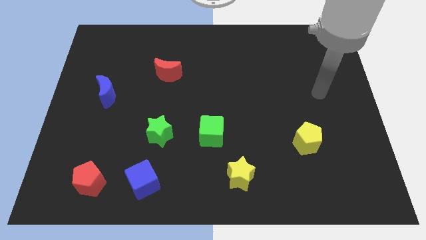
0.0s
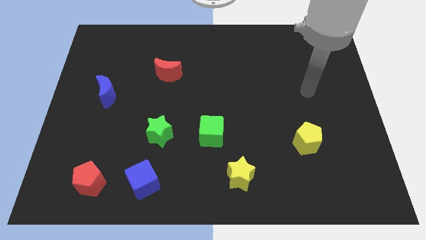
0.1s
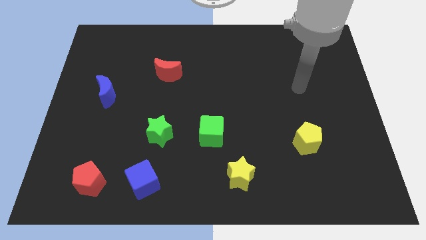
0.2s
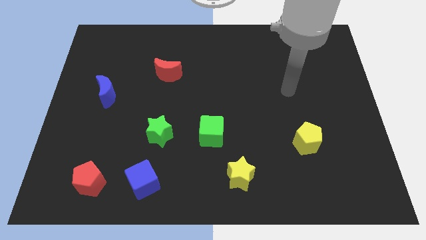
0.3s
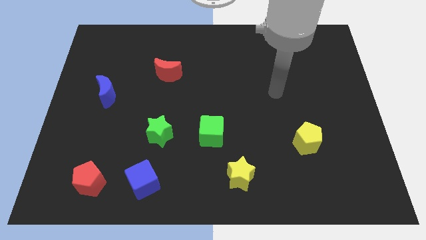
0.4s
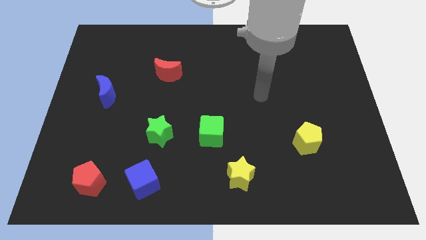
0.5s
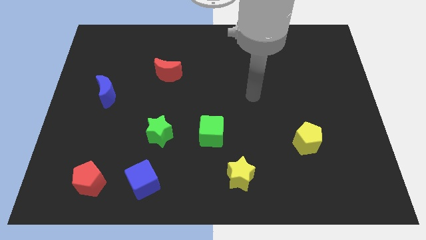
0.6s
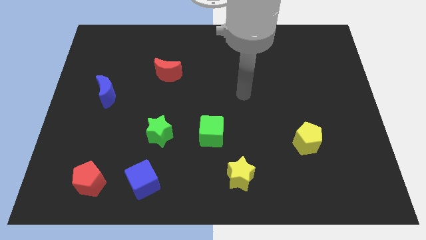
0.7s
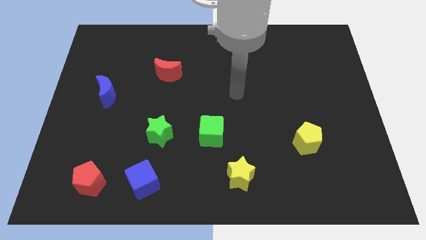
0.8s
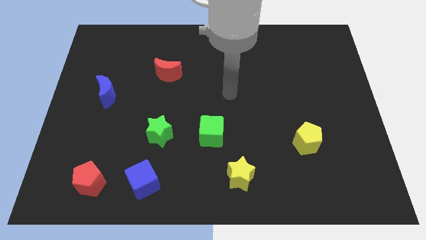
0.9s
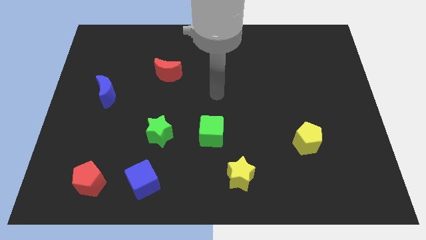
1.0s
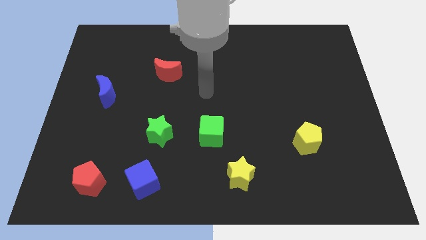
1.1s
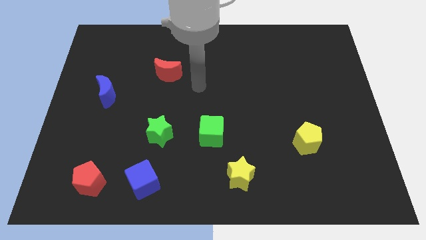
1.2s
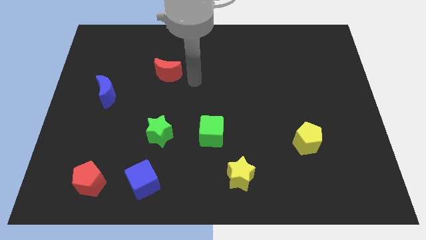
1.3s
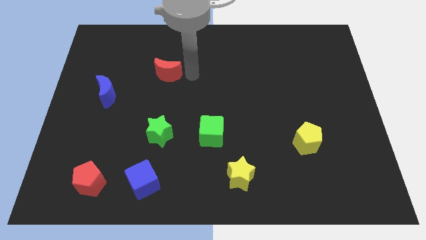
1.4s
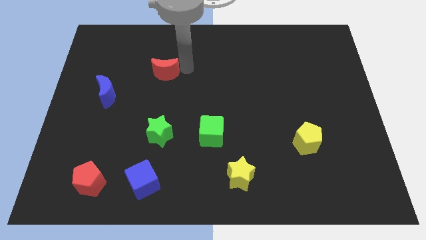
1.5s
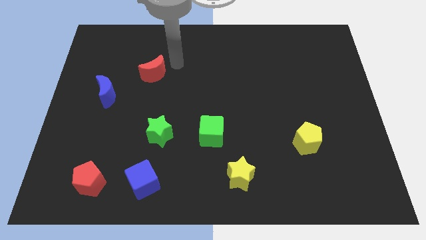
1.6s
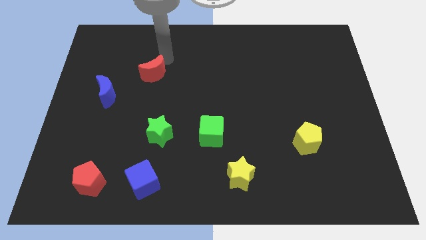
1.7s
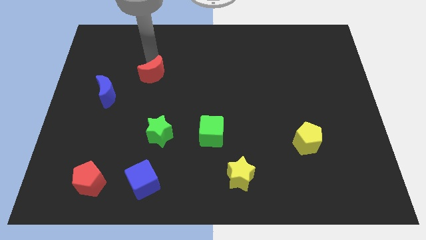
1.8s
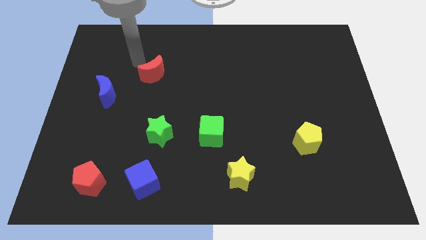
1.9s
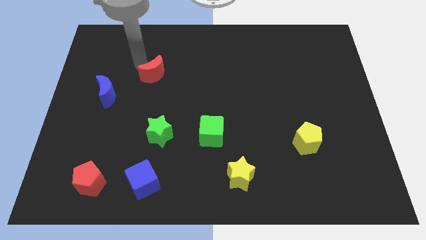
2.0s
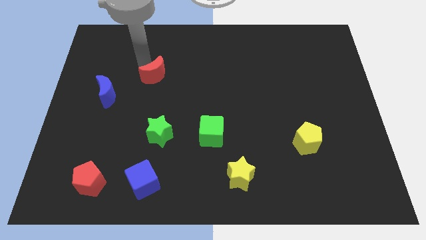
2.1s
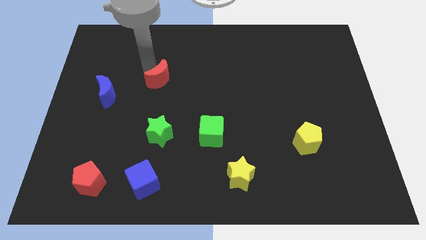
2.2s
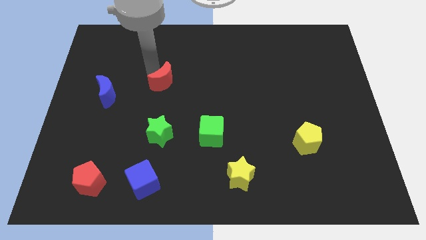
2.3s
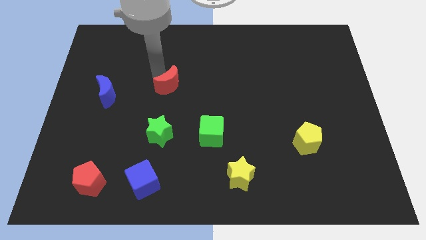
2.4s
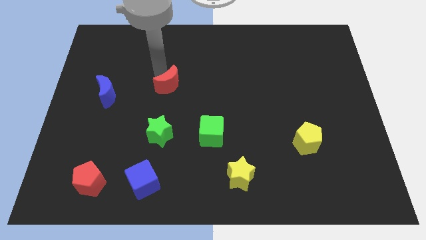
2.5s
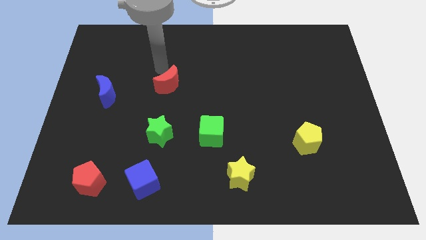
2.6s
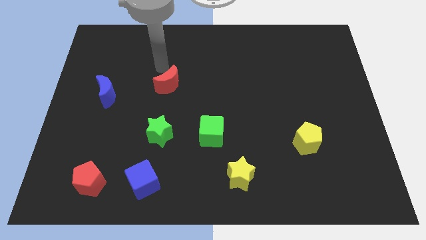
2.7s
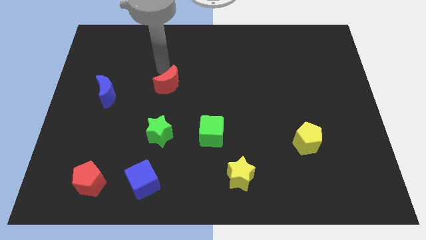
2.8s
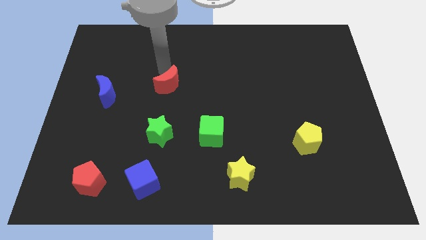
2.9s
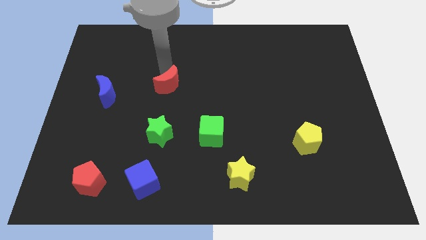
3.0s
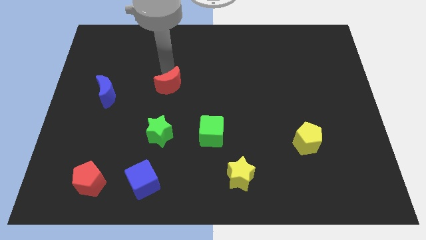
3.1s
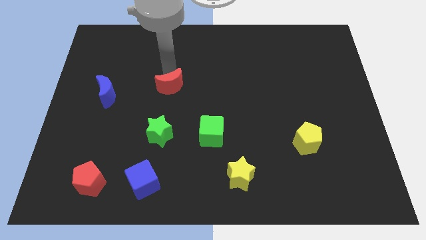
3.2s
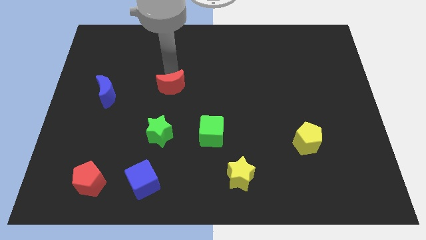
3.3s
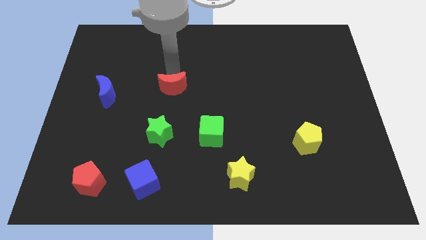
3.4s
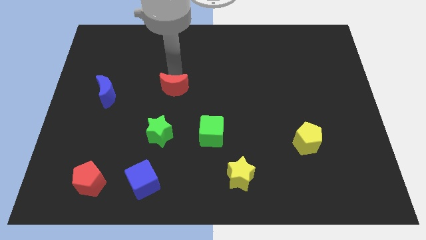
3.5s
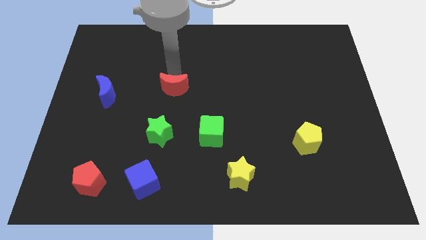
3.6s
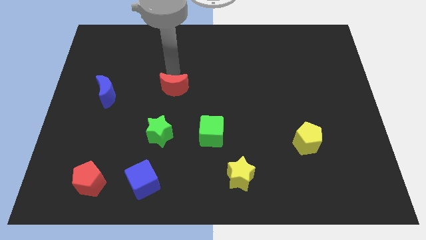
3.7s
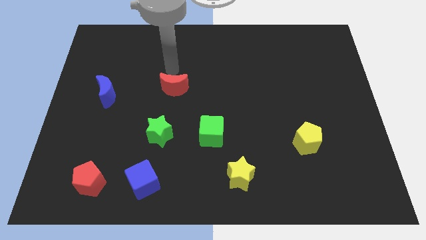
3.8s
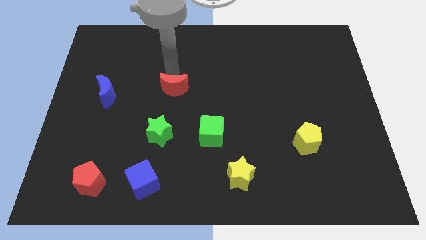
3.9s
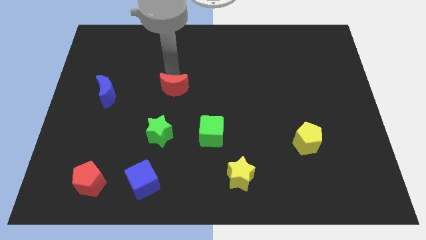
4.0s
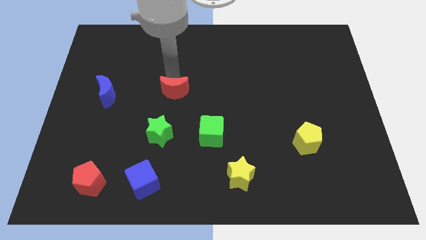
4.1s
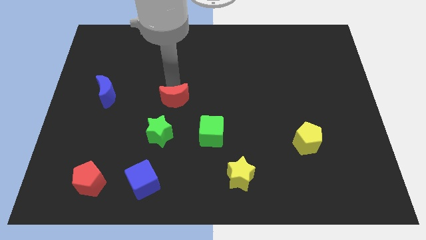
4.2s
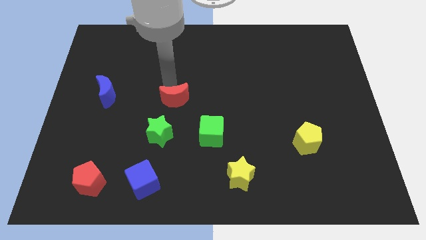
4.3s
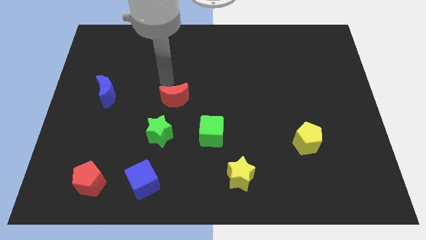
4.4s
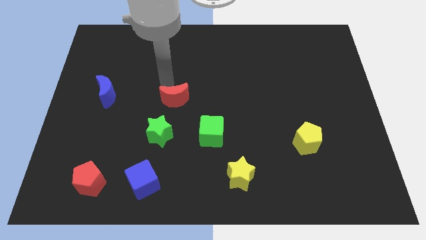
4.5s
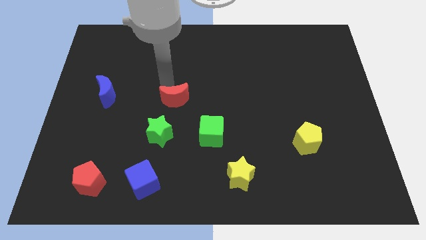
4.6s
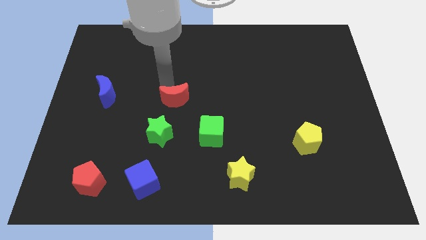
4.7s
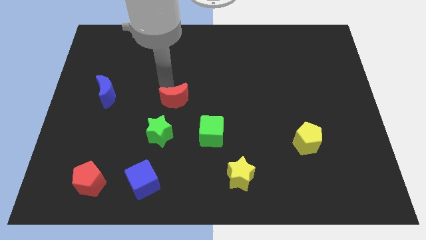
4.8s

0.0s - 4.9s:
put the red moon to the top right side of the green star

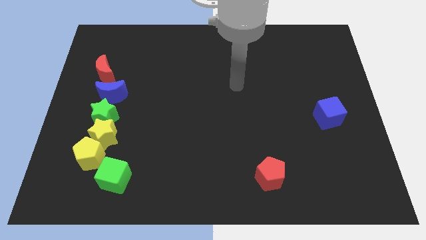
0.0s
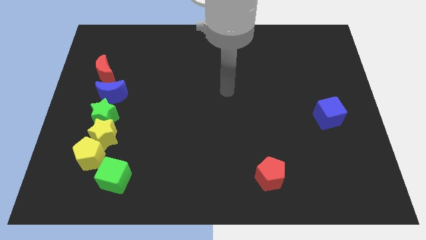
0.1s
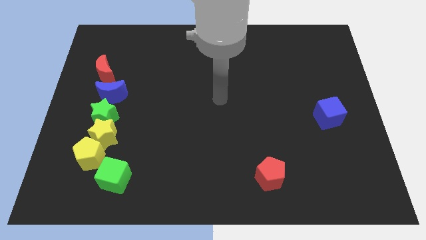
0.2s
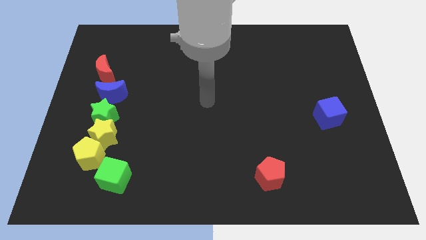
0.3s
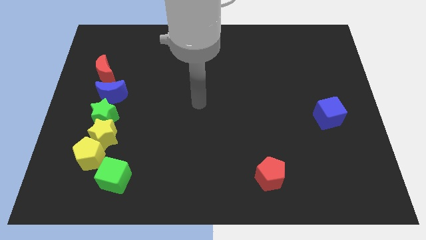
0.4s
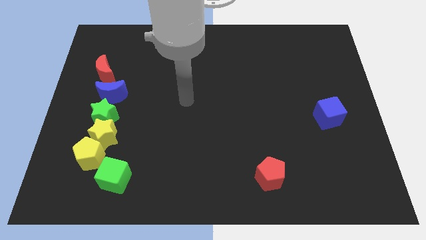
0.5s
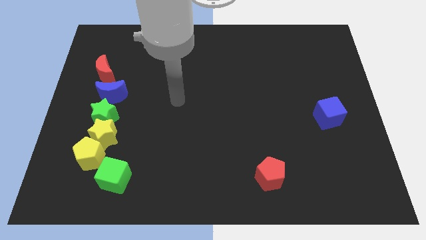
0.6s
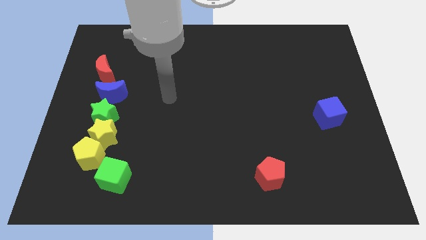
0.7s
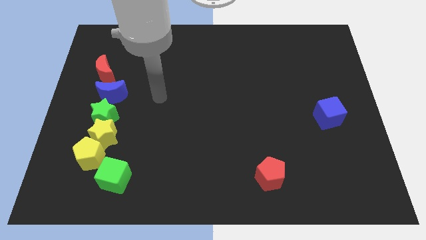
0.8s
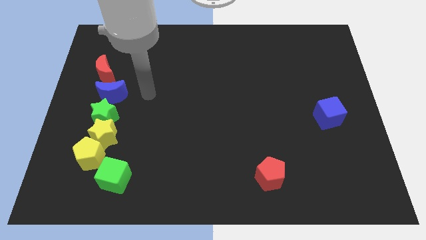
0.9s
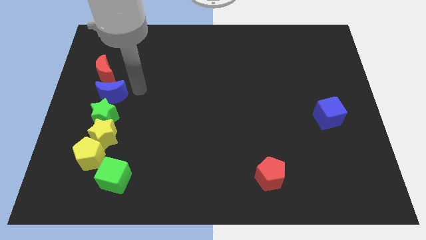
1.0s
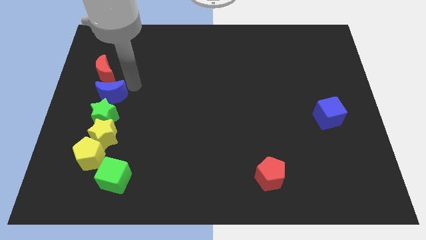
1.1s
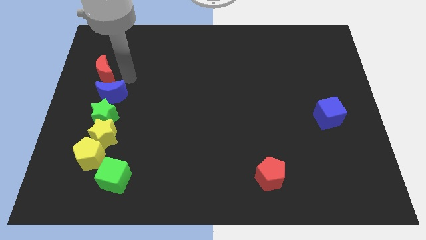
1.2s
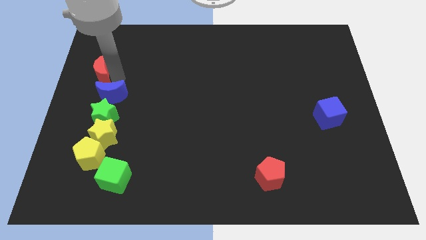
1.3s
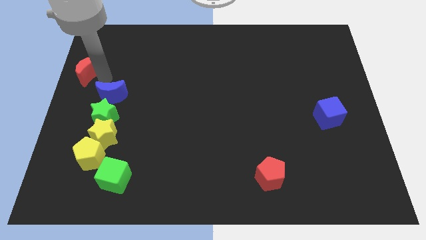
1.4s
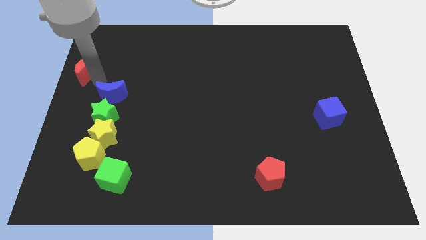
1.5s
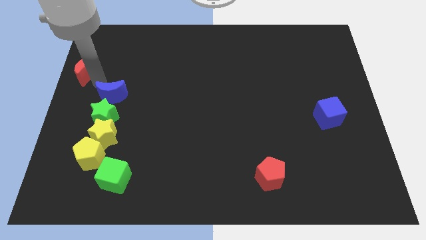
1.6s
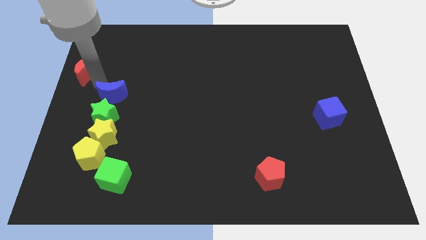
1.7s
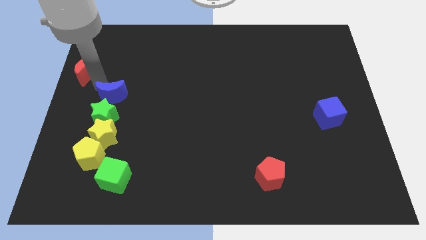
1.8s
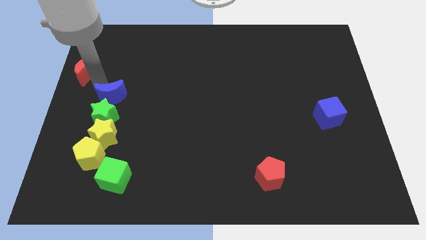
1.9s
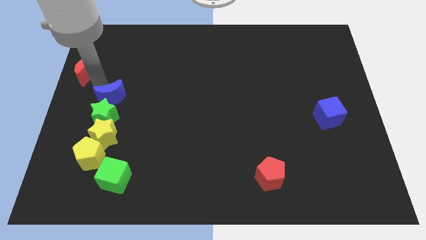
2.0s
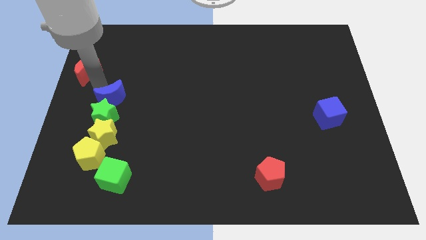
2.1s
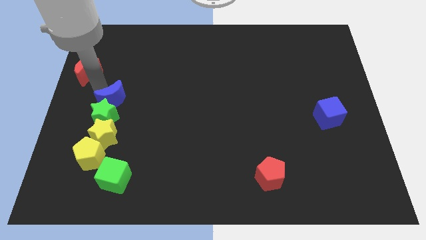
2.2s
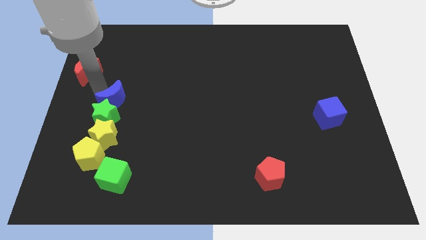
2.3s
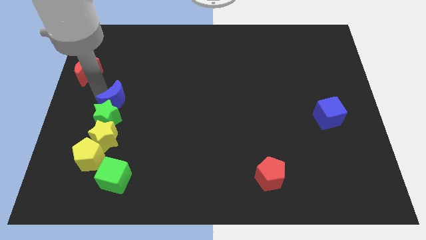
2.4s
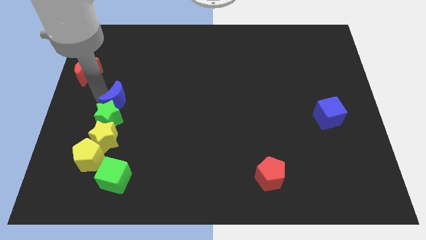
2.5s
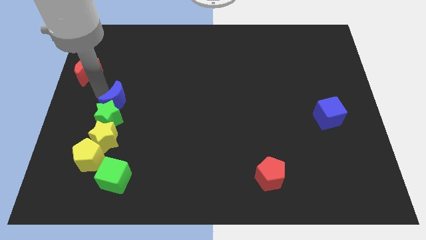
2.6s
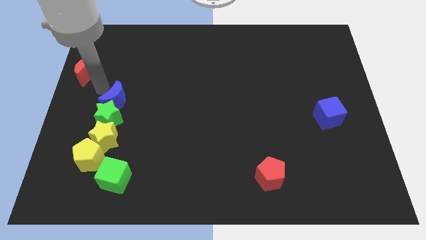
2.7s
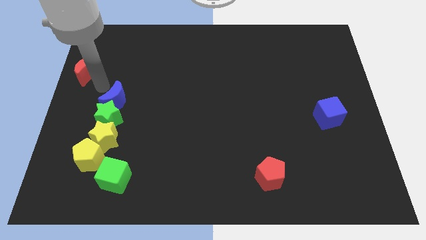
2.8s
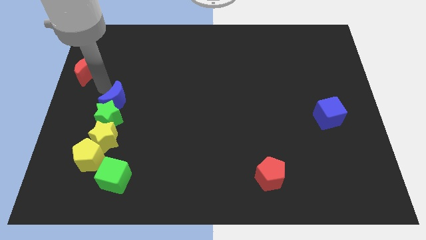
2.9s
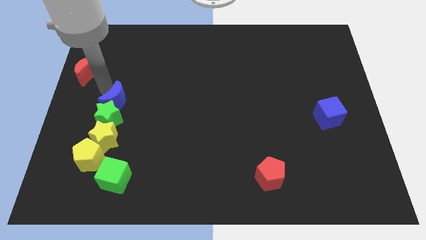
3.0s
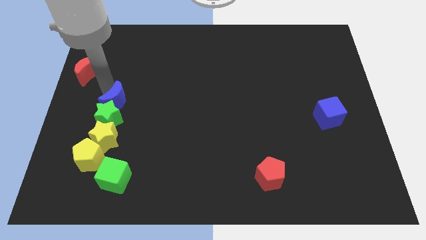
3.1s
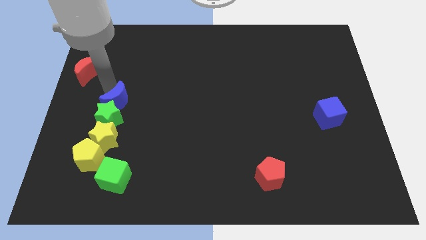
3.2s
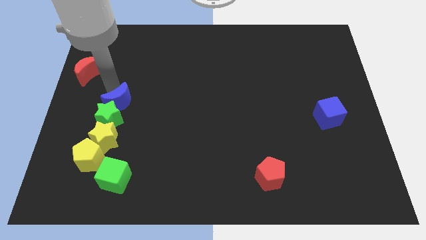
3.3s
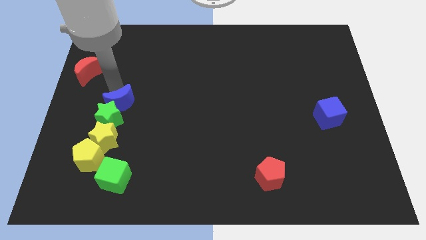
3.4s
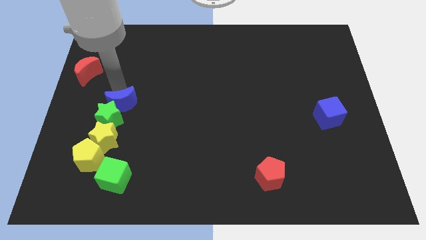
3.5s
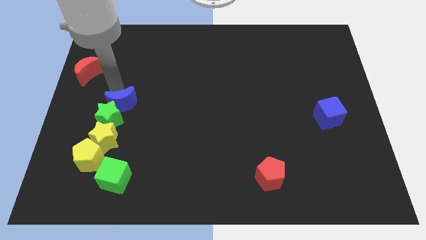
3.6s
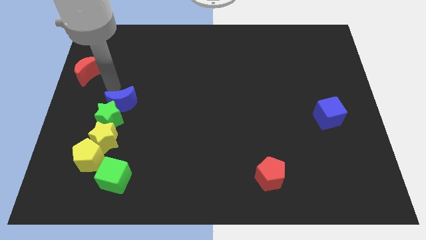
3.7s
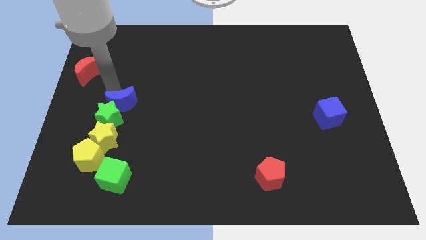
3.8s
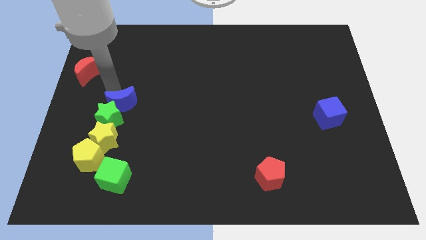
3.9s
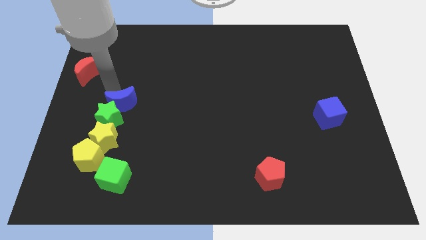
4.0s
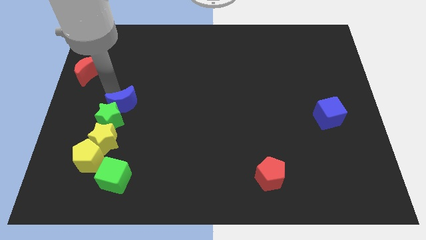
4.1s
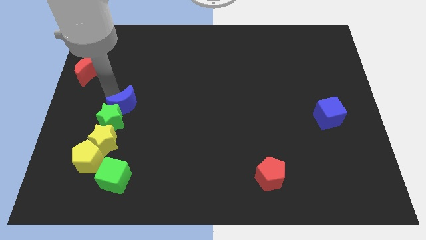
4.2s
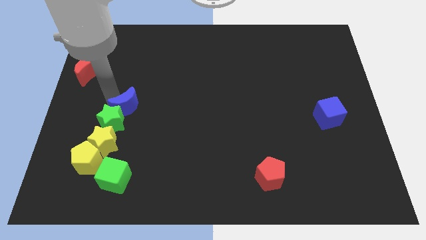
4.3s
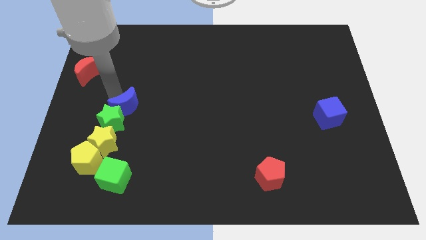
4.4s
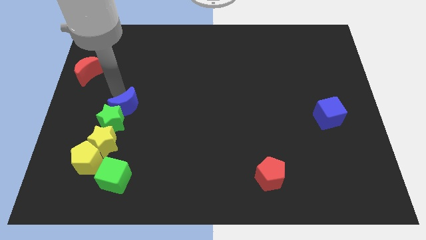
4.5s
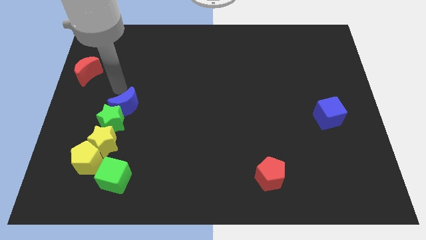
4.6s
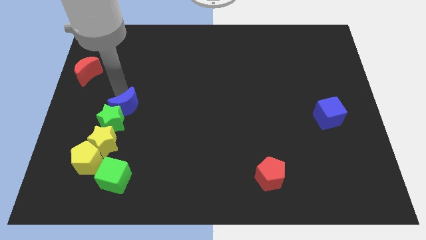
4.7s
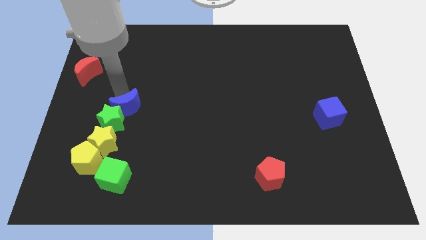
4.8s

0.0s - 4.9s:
push the blue moon to the top right of the yellow star
